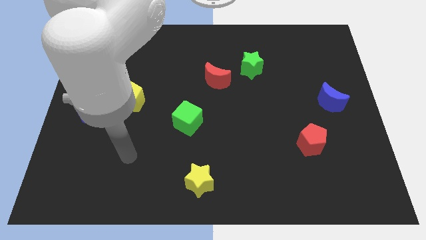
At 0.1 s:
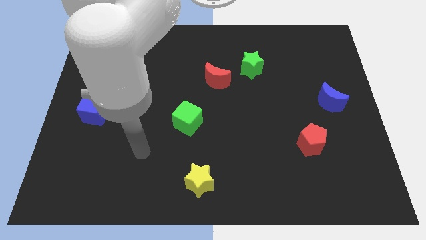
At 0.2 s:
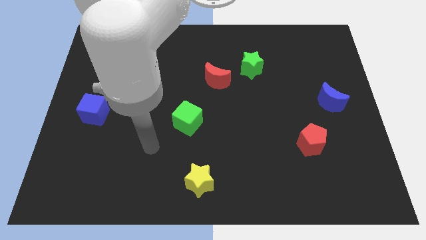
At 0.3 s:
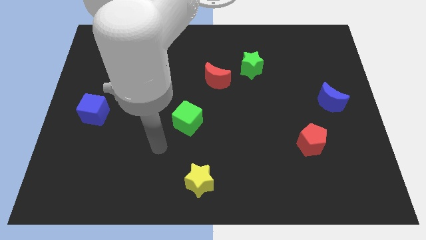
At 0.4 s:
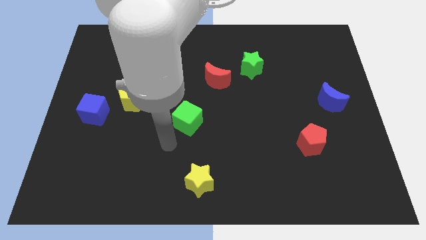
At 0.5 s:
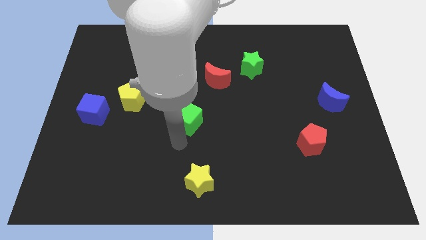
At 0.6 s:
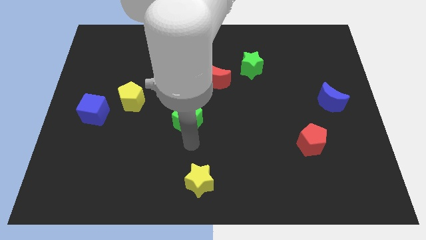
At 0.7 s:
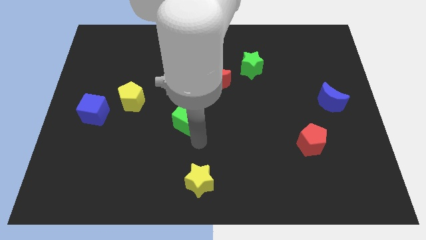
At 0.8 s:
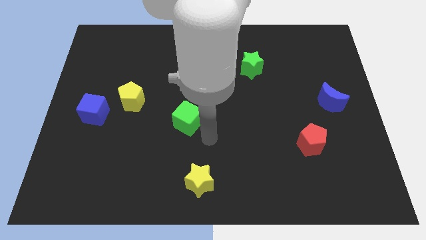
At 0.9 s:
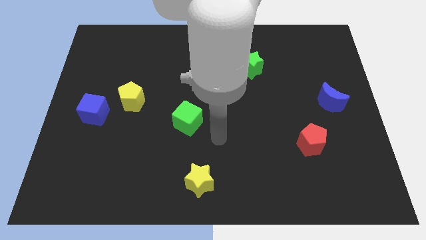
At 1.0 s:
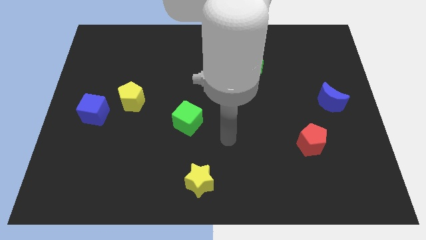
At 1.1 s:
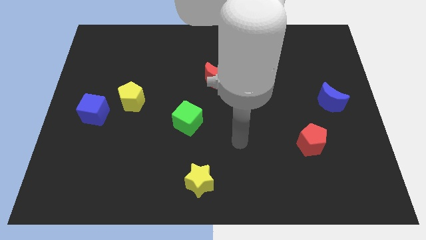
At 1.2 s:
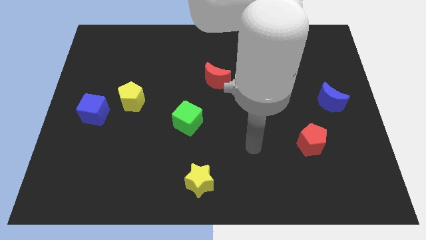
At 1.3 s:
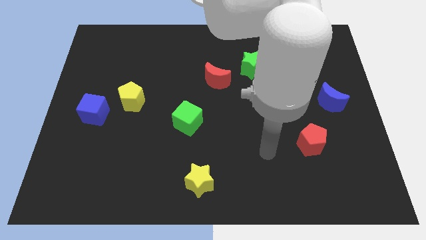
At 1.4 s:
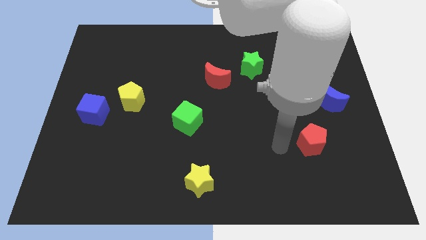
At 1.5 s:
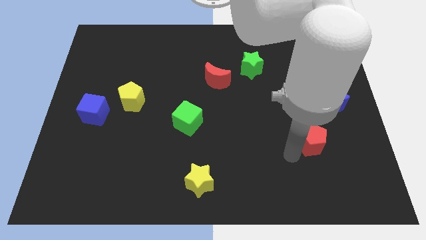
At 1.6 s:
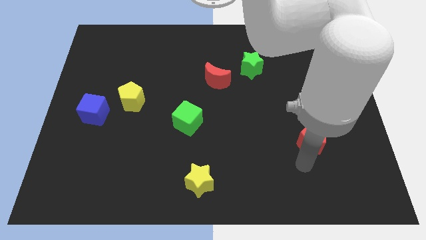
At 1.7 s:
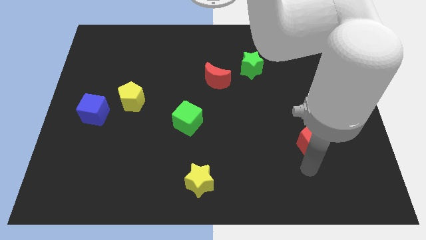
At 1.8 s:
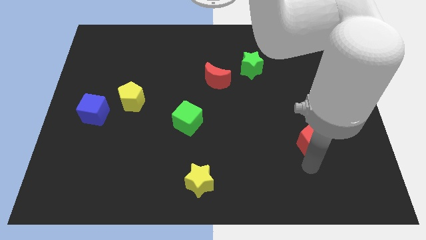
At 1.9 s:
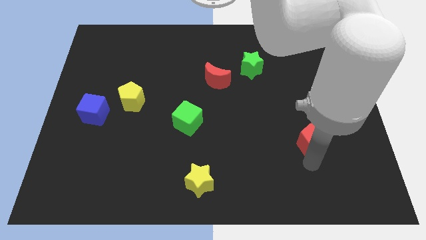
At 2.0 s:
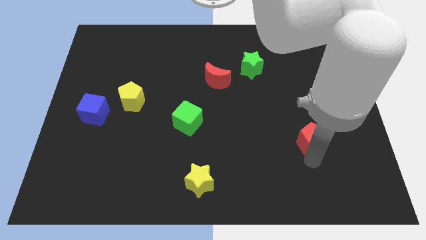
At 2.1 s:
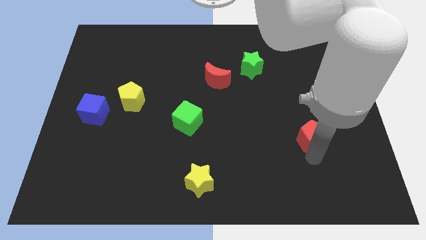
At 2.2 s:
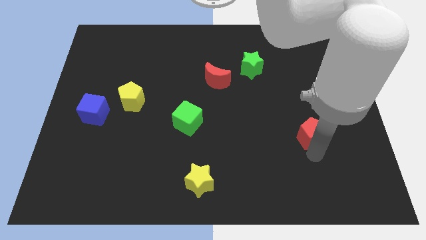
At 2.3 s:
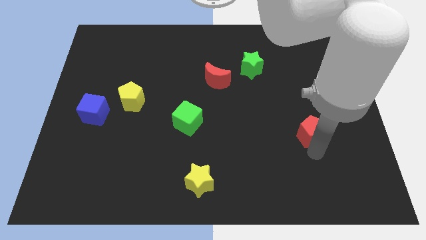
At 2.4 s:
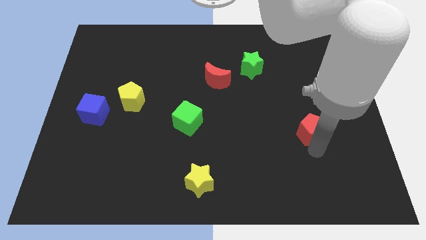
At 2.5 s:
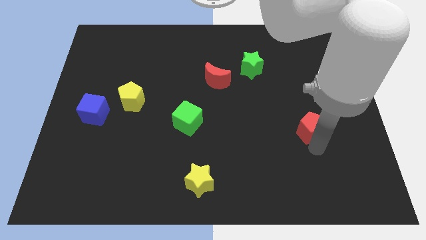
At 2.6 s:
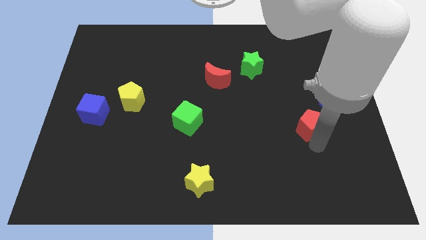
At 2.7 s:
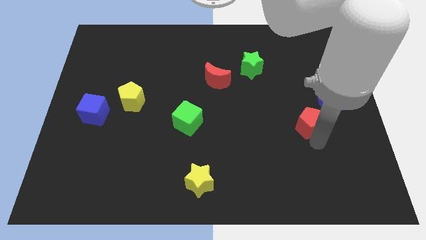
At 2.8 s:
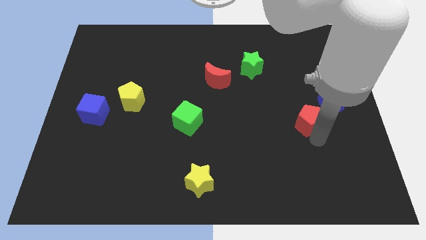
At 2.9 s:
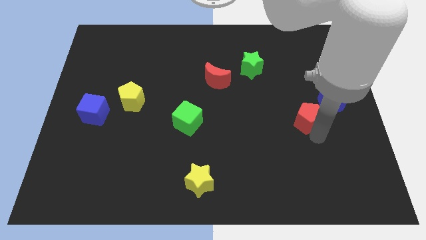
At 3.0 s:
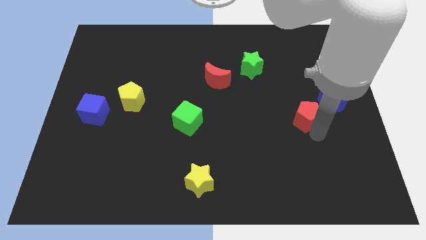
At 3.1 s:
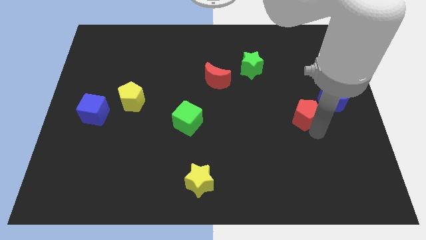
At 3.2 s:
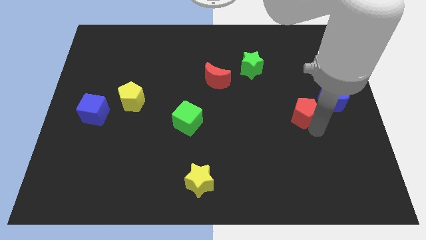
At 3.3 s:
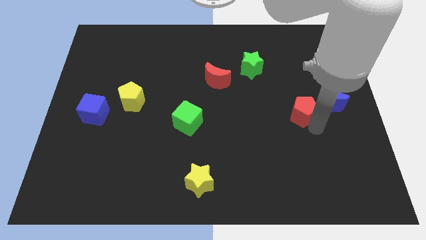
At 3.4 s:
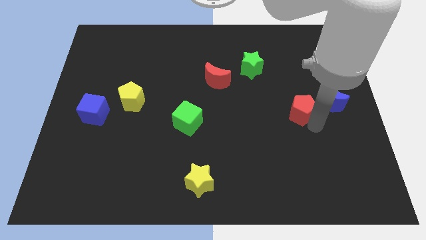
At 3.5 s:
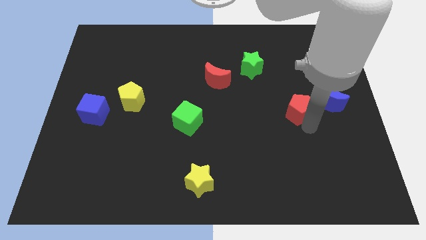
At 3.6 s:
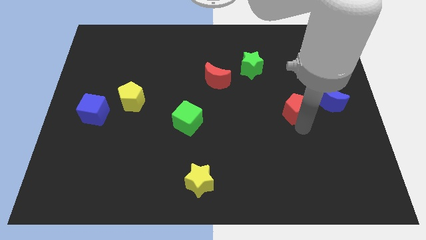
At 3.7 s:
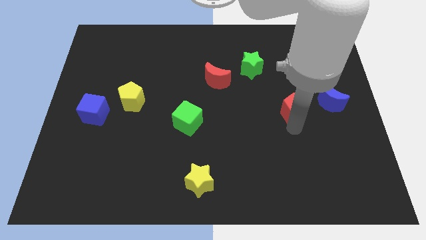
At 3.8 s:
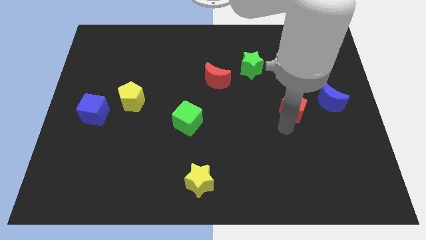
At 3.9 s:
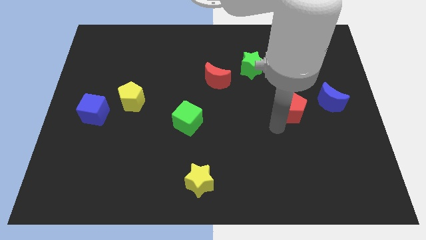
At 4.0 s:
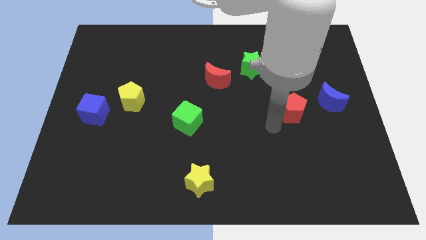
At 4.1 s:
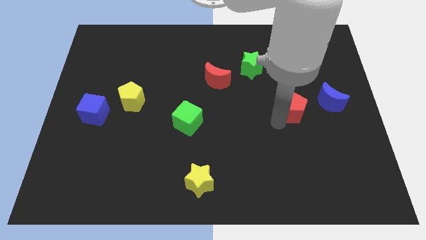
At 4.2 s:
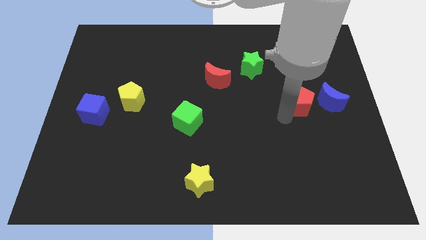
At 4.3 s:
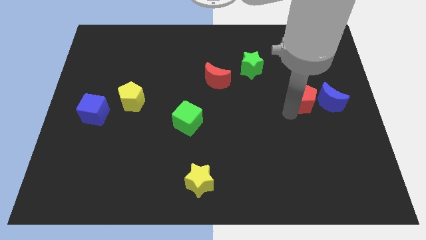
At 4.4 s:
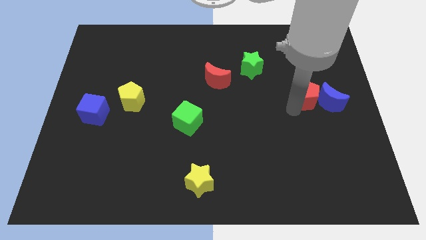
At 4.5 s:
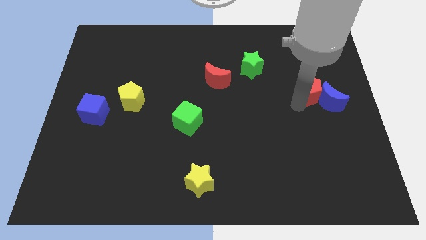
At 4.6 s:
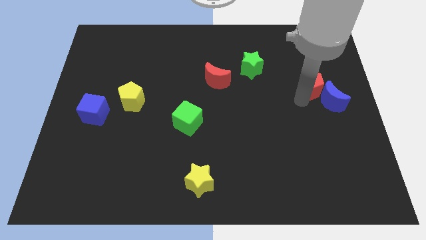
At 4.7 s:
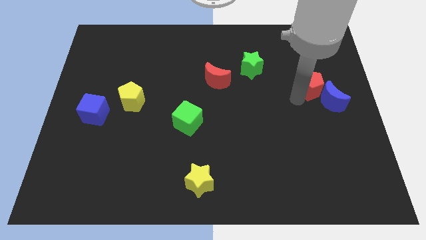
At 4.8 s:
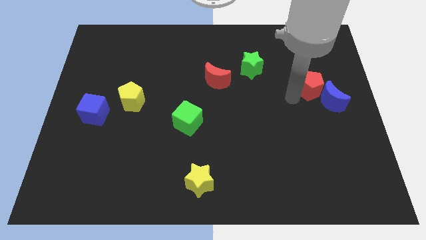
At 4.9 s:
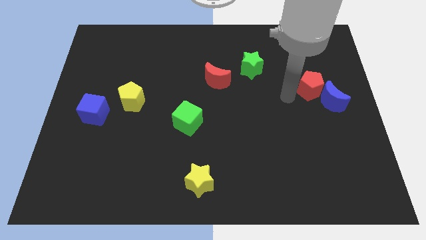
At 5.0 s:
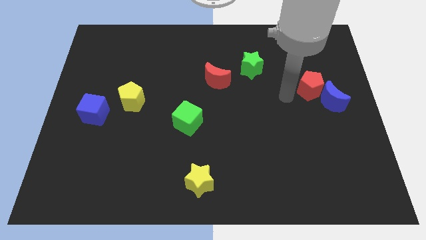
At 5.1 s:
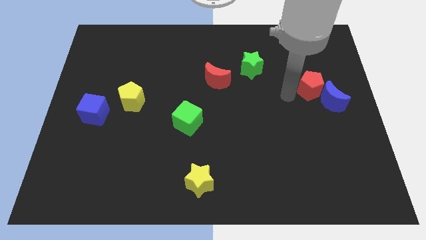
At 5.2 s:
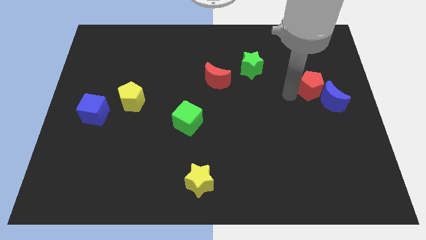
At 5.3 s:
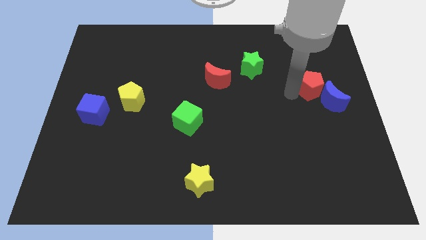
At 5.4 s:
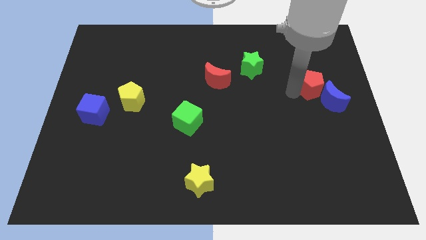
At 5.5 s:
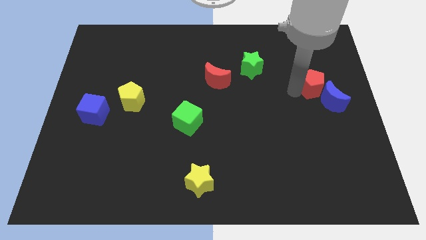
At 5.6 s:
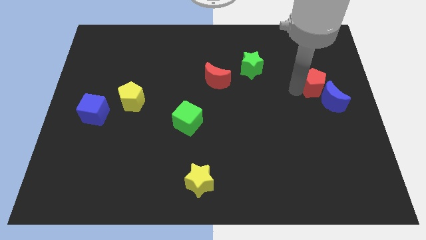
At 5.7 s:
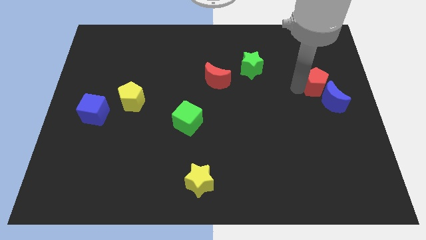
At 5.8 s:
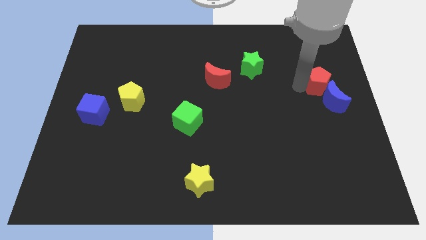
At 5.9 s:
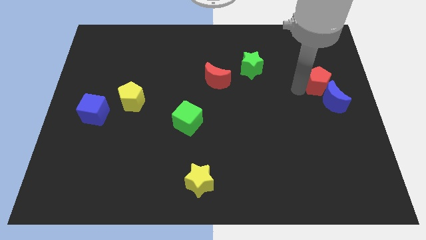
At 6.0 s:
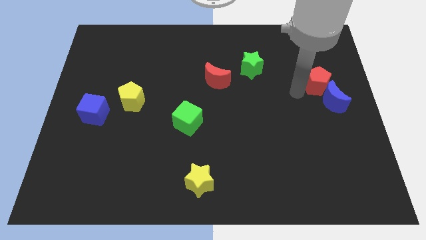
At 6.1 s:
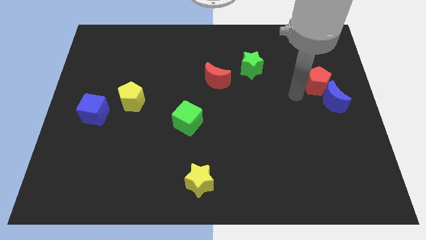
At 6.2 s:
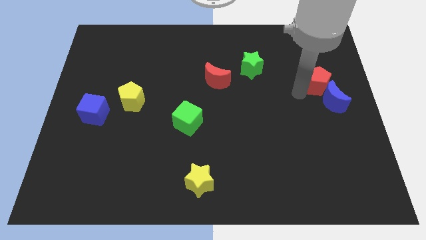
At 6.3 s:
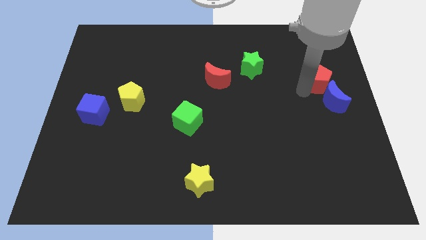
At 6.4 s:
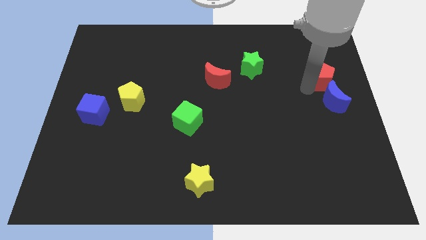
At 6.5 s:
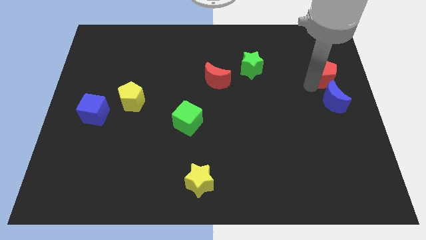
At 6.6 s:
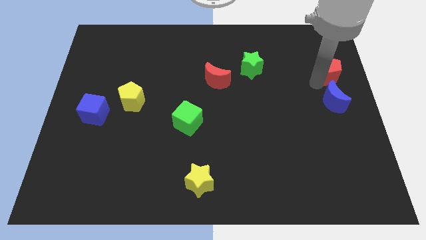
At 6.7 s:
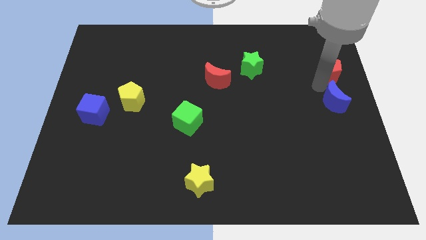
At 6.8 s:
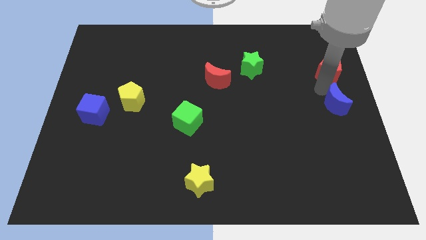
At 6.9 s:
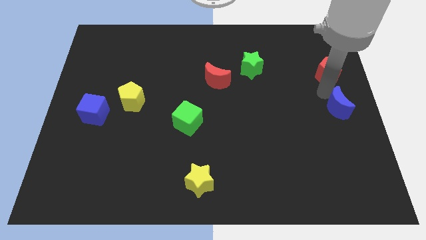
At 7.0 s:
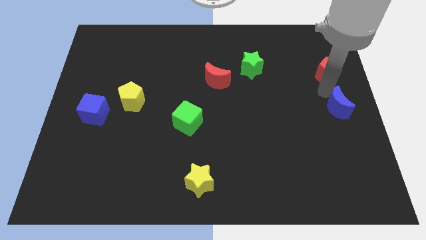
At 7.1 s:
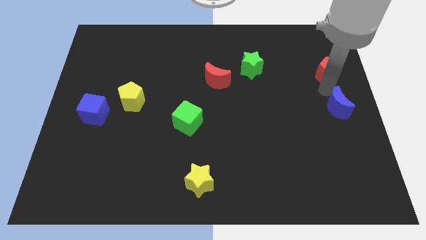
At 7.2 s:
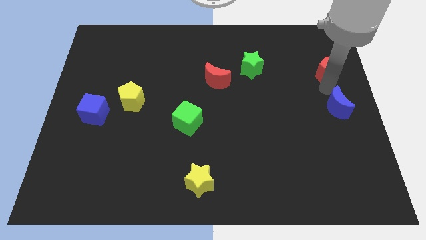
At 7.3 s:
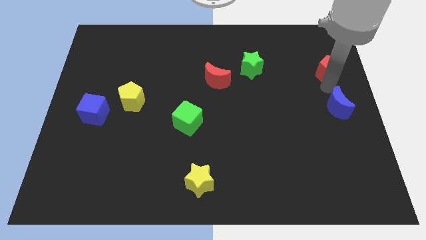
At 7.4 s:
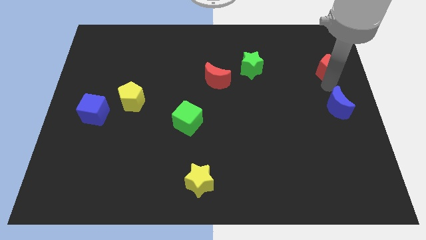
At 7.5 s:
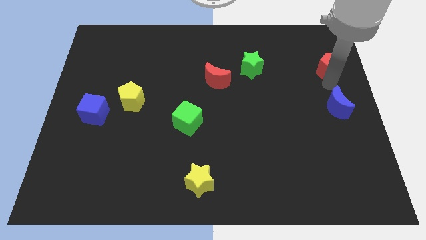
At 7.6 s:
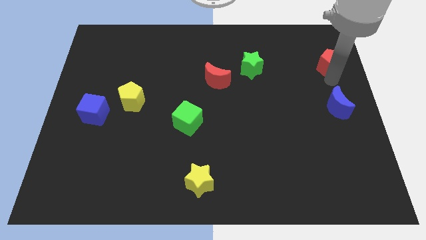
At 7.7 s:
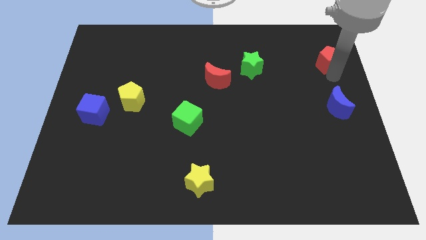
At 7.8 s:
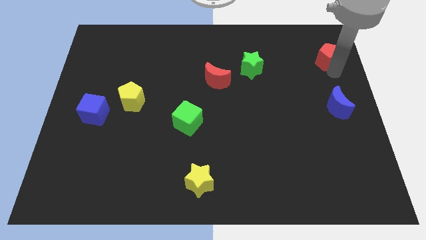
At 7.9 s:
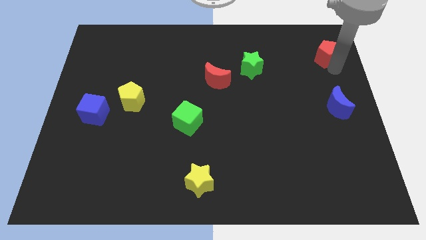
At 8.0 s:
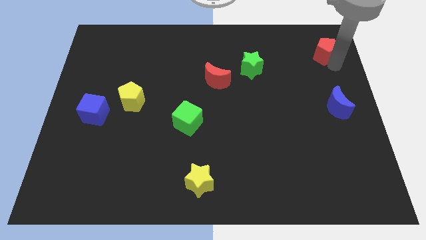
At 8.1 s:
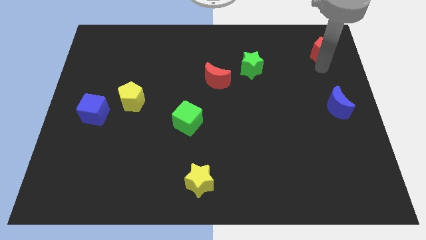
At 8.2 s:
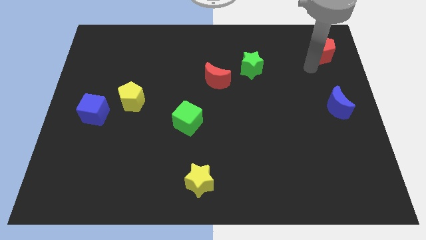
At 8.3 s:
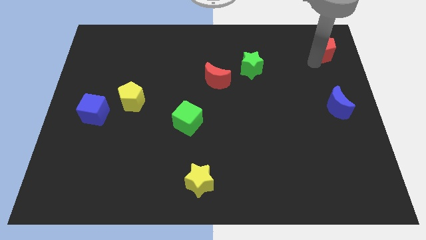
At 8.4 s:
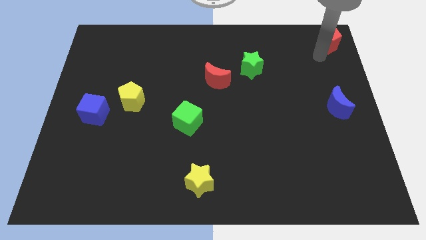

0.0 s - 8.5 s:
put the red pentagon to the top right corner
